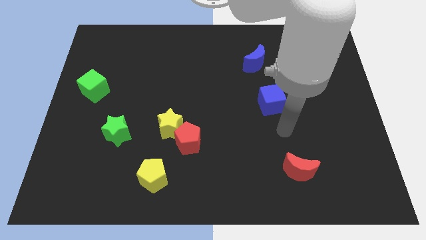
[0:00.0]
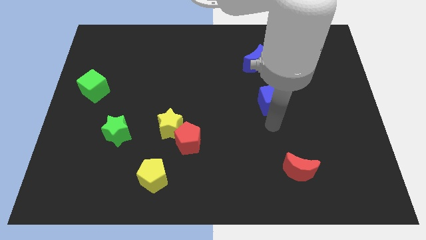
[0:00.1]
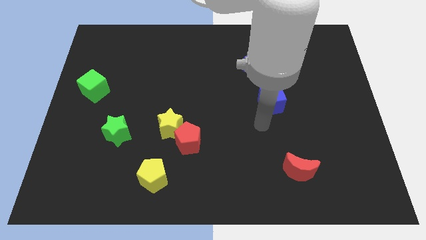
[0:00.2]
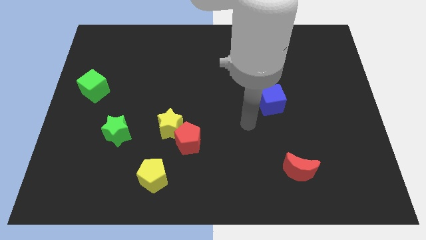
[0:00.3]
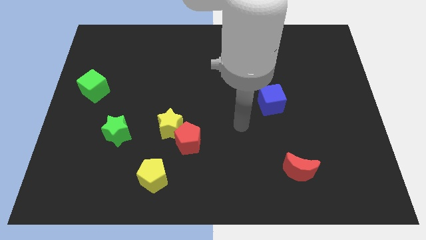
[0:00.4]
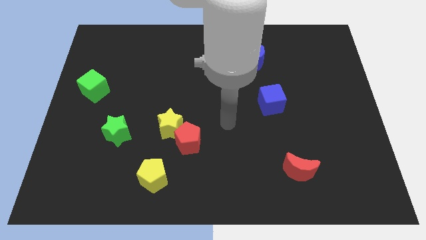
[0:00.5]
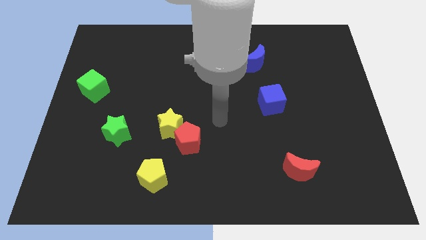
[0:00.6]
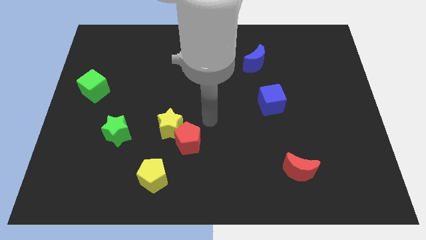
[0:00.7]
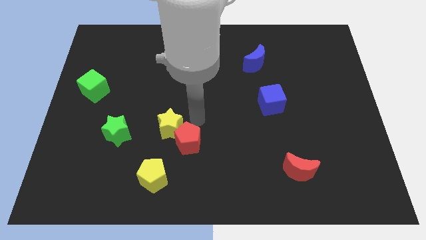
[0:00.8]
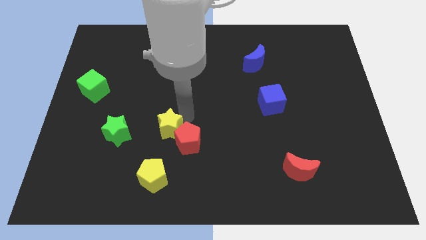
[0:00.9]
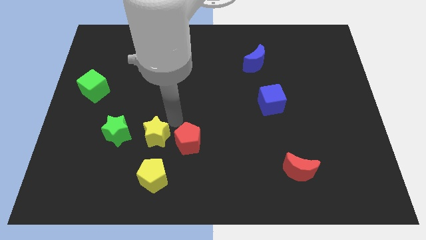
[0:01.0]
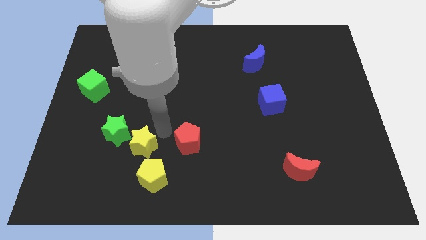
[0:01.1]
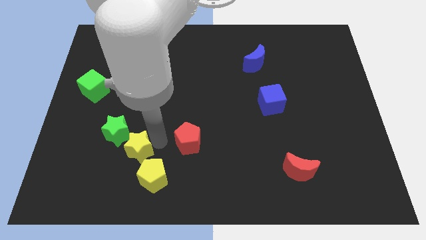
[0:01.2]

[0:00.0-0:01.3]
pull the red pentagon apart from the yellow star

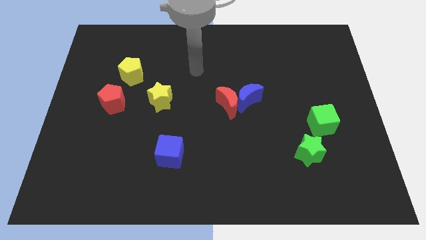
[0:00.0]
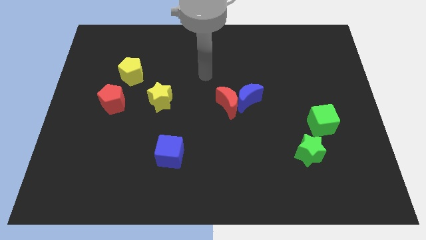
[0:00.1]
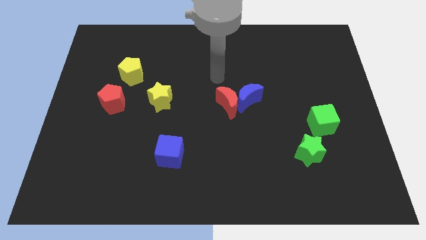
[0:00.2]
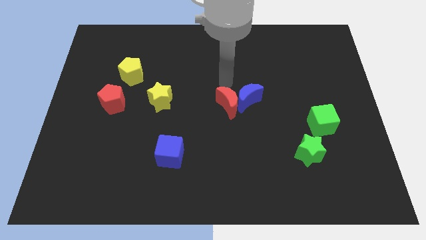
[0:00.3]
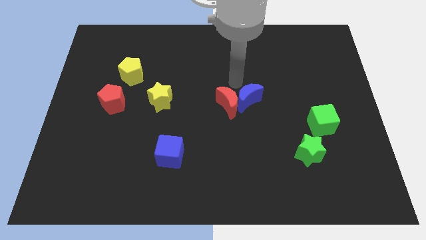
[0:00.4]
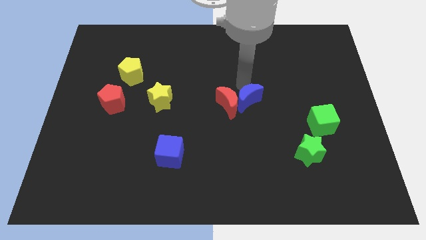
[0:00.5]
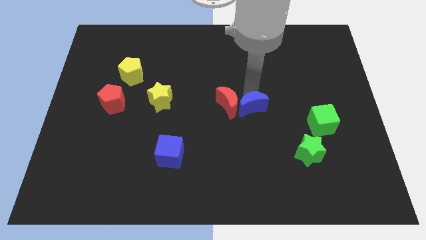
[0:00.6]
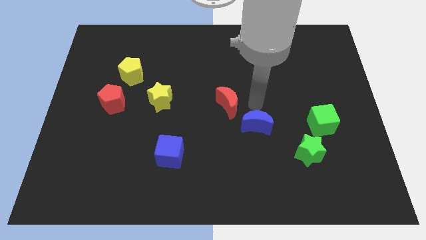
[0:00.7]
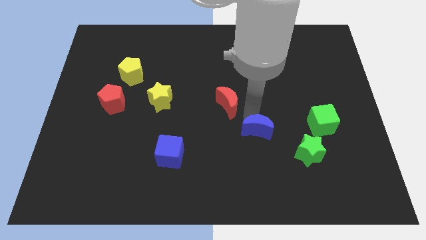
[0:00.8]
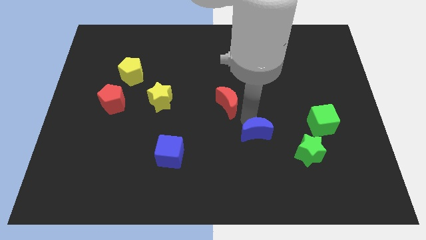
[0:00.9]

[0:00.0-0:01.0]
pull the red moon apart from the blue moon

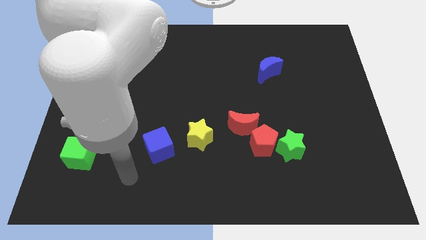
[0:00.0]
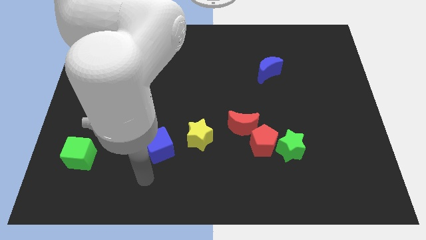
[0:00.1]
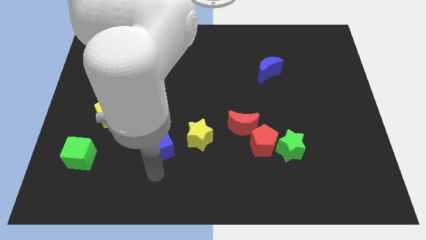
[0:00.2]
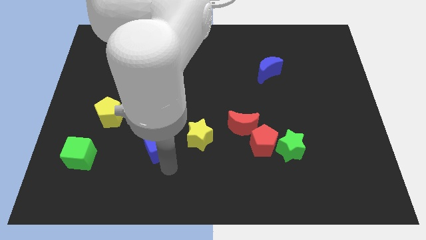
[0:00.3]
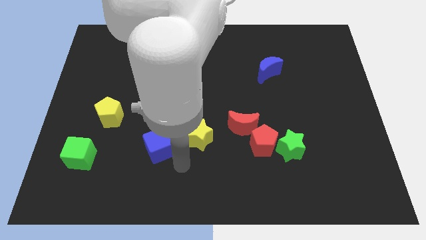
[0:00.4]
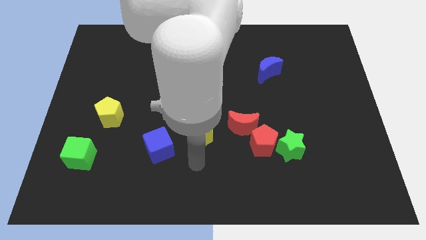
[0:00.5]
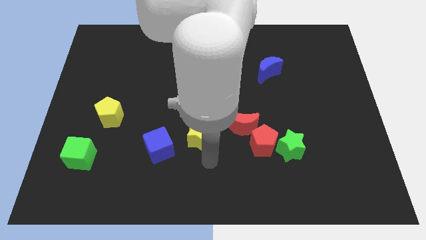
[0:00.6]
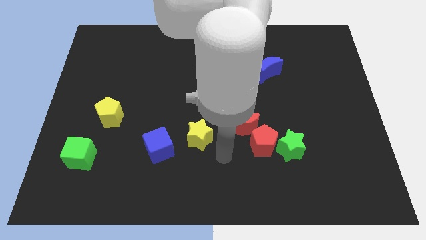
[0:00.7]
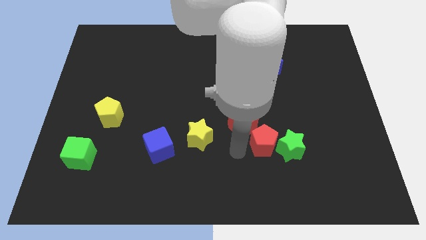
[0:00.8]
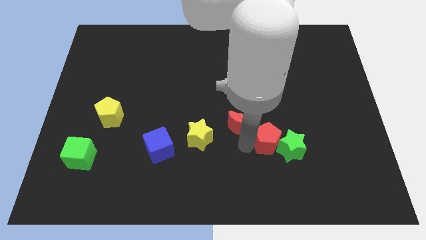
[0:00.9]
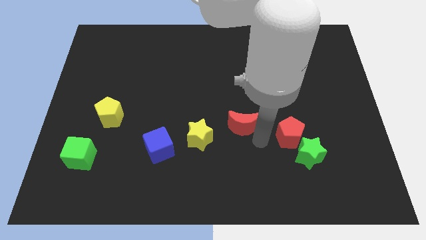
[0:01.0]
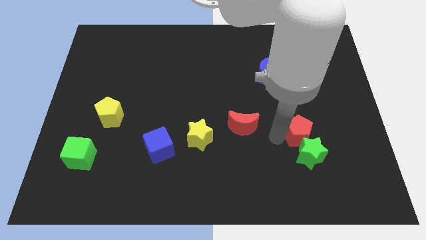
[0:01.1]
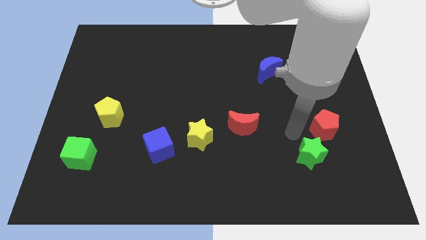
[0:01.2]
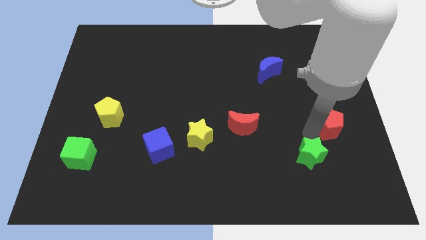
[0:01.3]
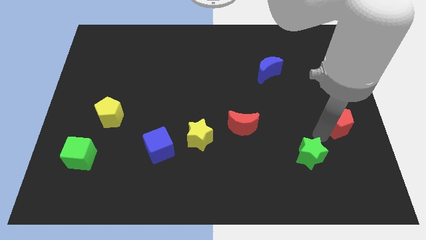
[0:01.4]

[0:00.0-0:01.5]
separate the green star from the red pentagon

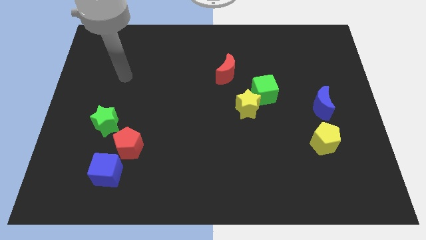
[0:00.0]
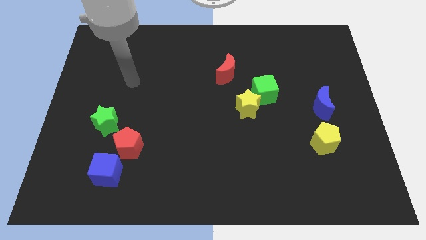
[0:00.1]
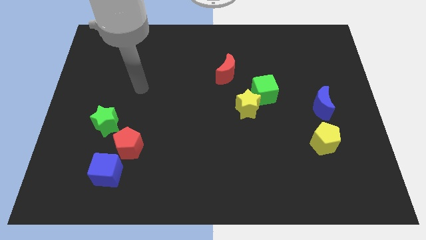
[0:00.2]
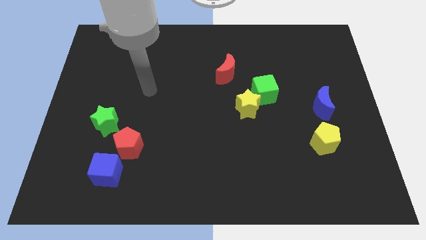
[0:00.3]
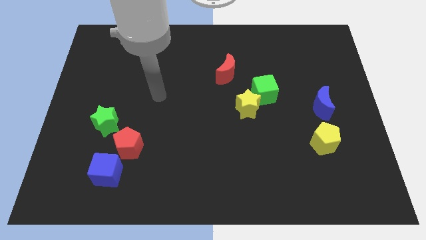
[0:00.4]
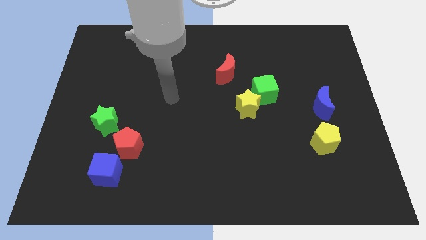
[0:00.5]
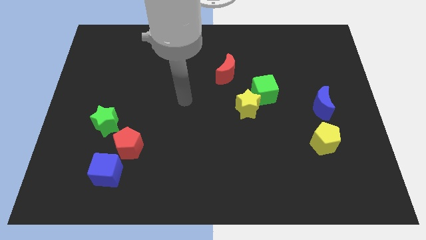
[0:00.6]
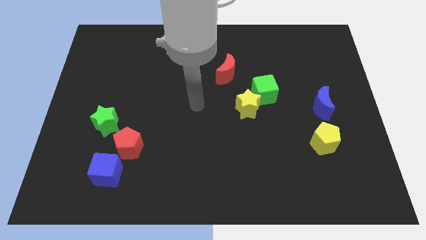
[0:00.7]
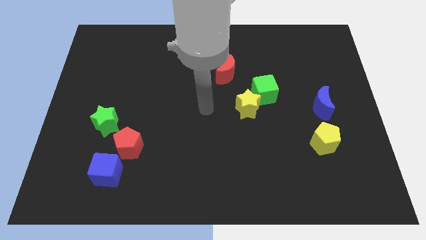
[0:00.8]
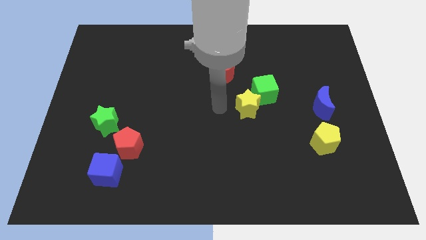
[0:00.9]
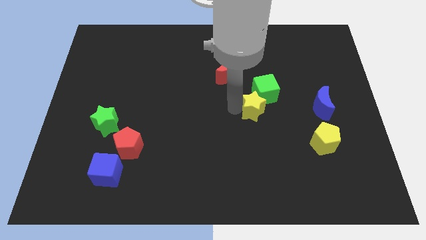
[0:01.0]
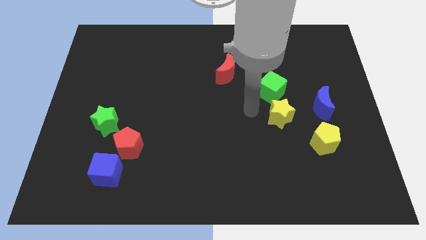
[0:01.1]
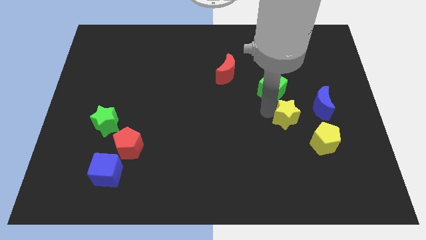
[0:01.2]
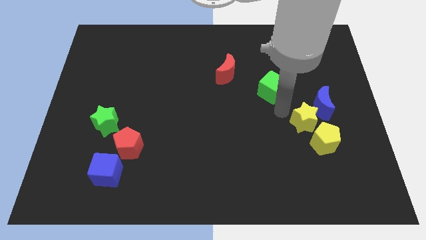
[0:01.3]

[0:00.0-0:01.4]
pull the green cube apart from the yellow star

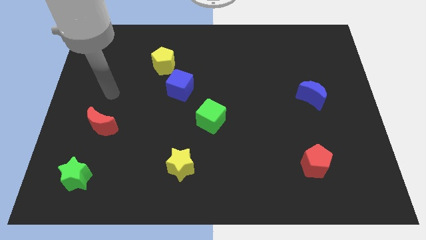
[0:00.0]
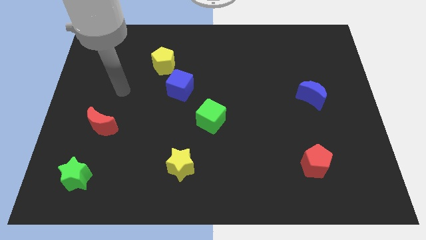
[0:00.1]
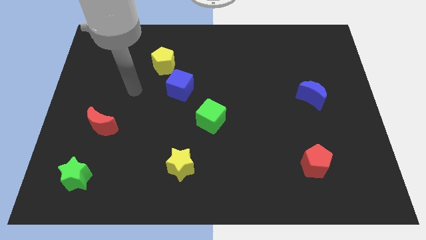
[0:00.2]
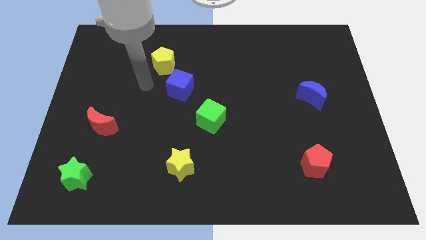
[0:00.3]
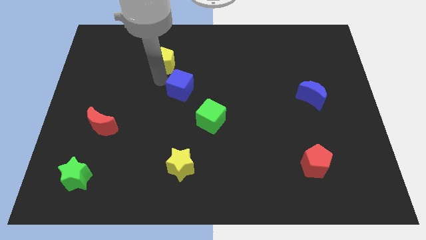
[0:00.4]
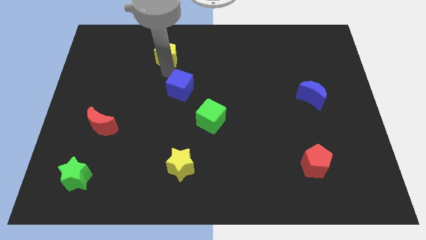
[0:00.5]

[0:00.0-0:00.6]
pull the blue cube apart from the yellow pentagon

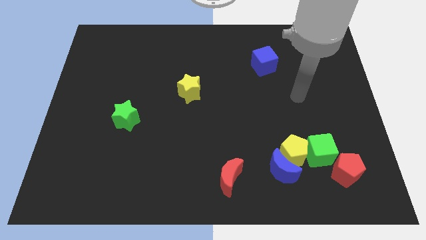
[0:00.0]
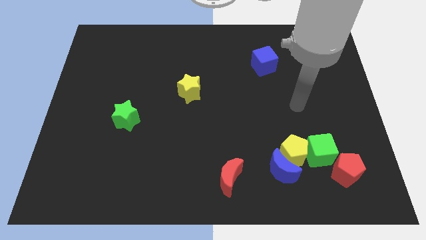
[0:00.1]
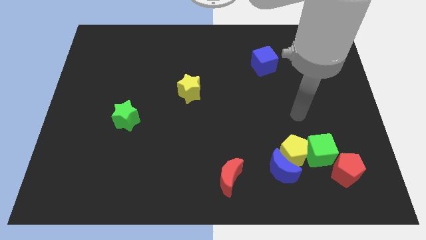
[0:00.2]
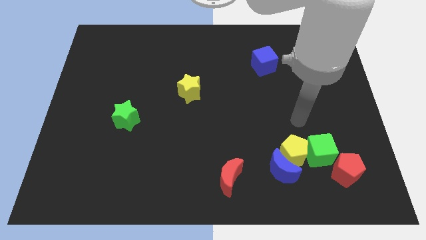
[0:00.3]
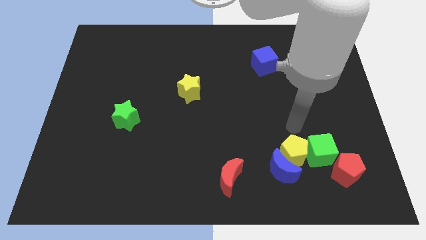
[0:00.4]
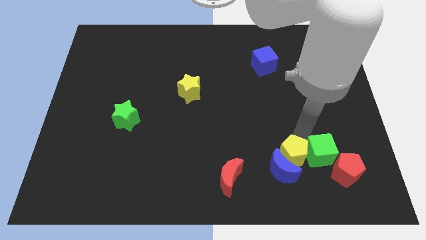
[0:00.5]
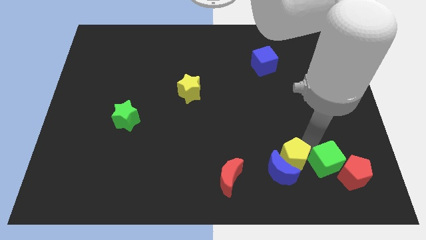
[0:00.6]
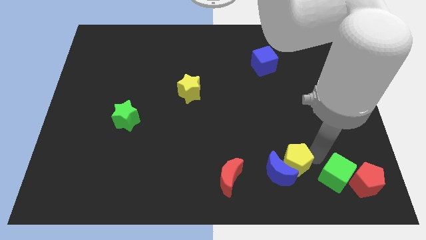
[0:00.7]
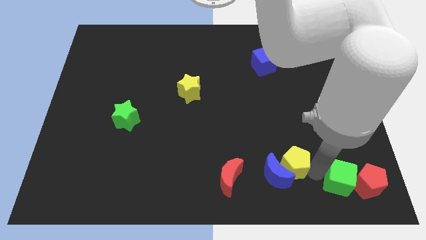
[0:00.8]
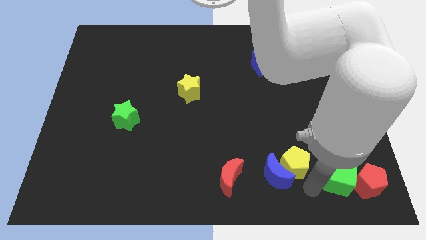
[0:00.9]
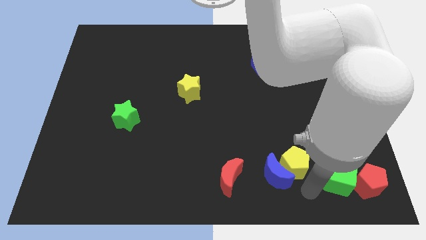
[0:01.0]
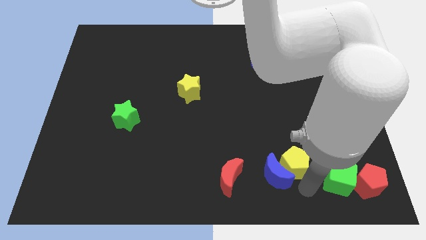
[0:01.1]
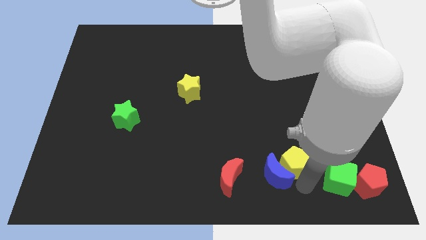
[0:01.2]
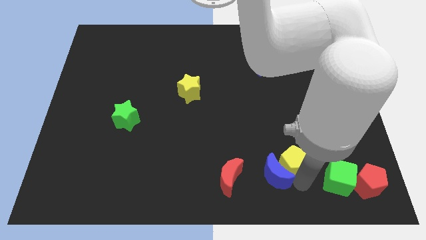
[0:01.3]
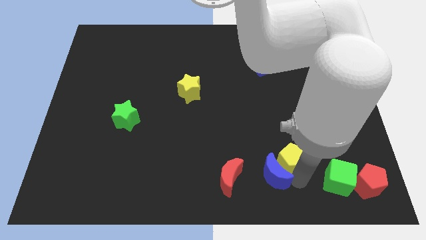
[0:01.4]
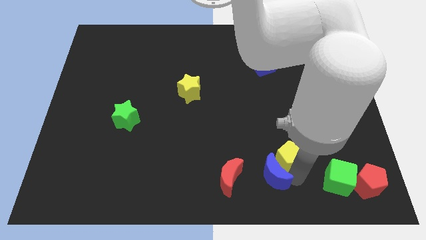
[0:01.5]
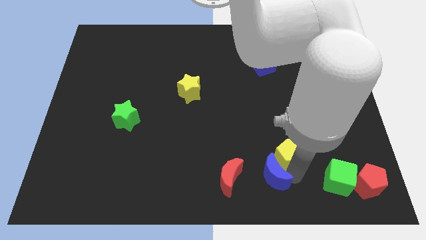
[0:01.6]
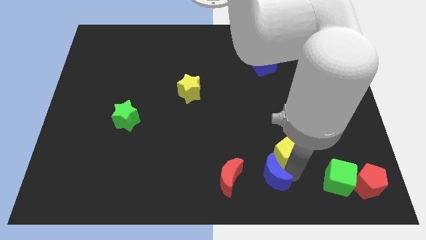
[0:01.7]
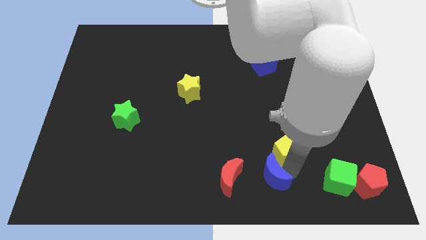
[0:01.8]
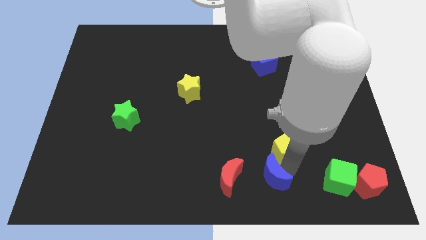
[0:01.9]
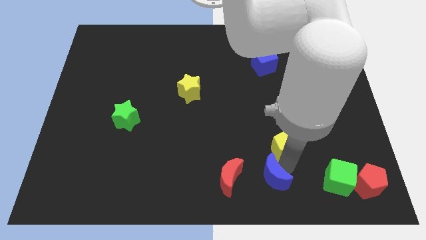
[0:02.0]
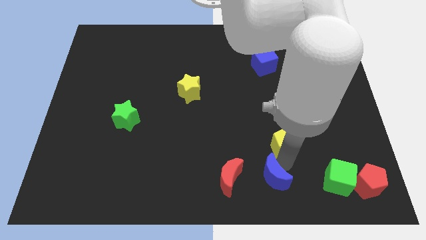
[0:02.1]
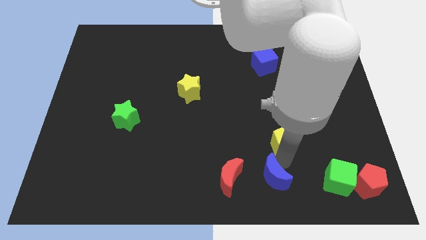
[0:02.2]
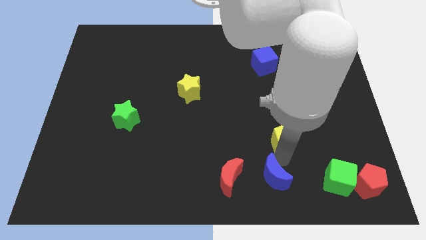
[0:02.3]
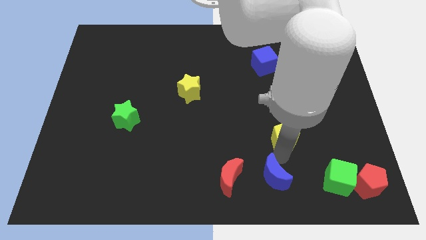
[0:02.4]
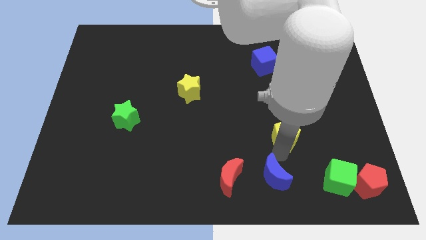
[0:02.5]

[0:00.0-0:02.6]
pull the yellow pentagon apart from the blue moon and green cube

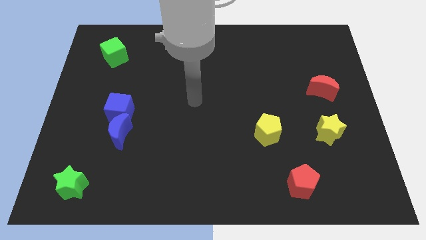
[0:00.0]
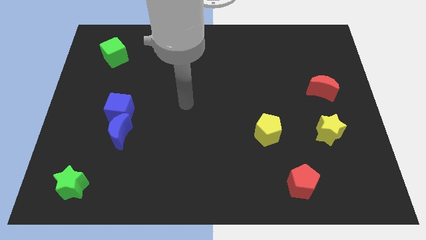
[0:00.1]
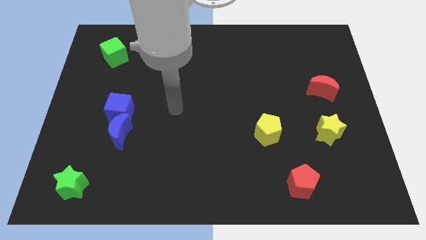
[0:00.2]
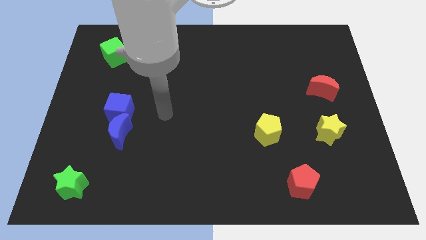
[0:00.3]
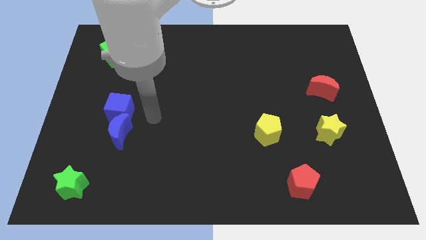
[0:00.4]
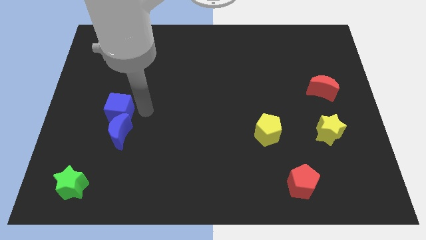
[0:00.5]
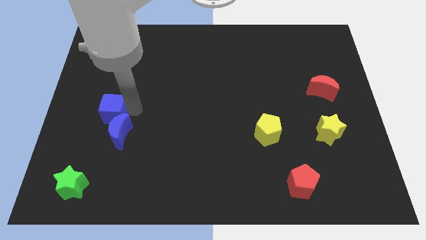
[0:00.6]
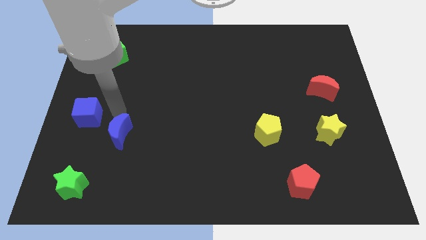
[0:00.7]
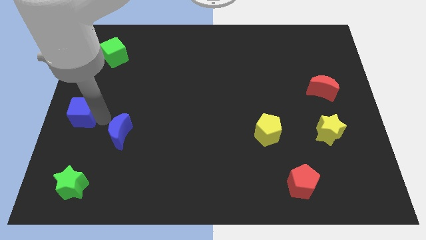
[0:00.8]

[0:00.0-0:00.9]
pull the blue moon apart from the blue cube
